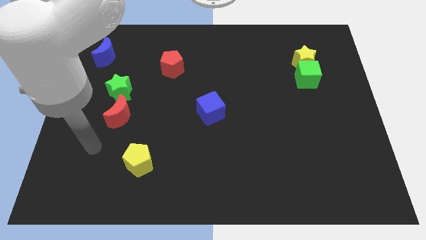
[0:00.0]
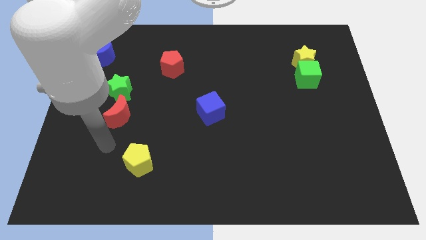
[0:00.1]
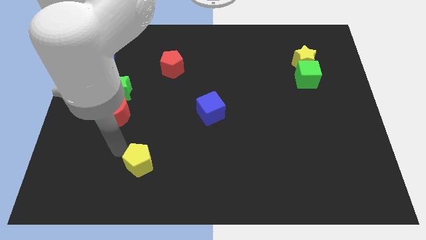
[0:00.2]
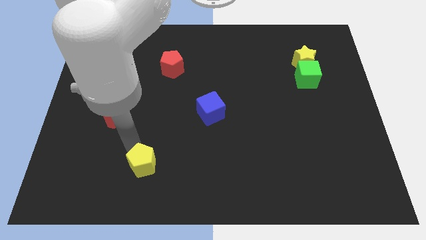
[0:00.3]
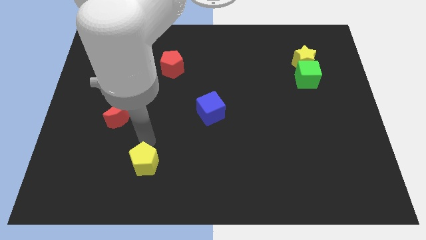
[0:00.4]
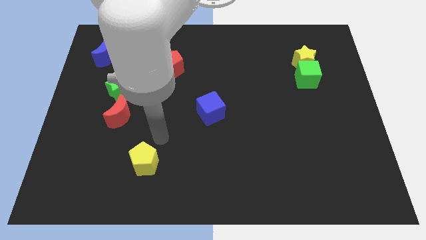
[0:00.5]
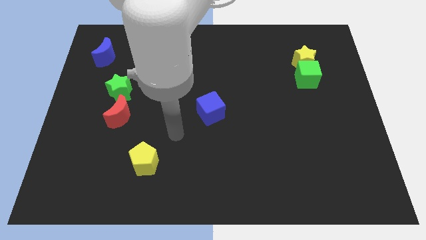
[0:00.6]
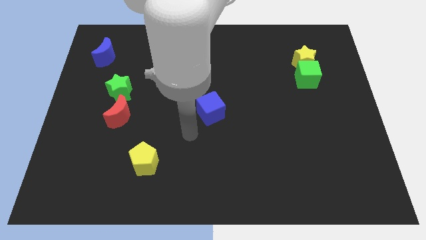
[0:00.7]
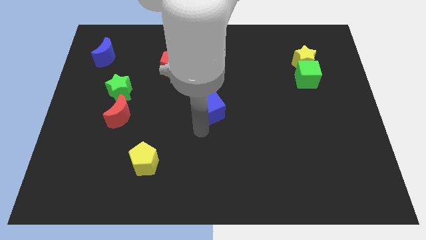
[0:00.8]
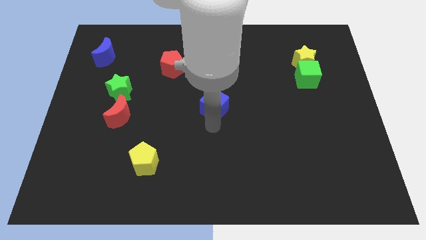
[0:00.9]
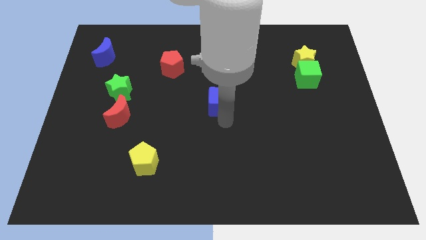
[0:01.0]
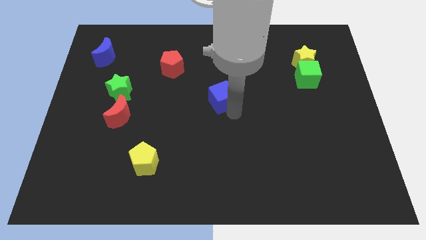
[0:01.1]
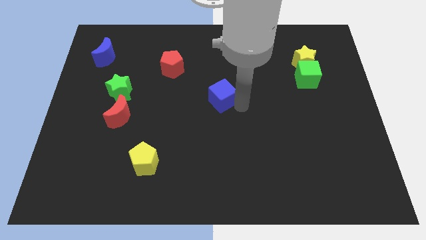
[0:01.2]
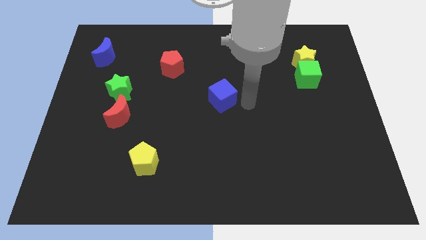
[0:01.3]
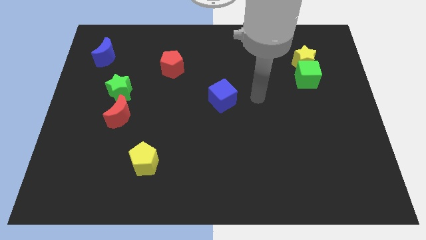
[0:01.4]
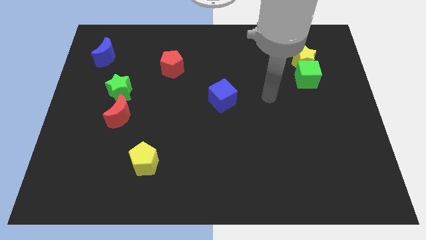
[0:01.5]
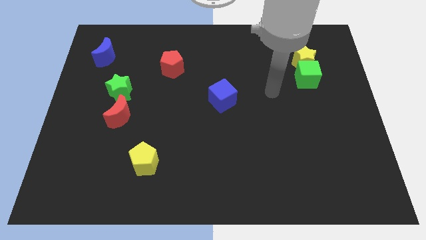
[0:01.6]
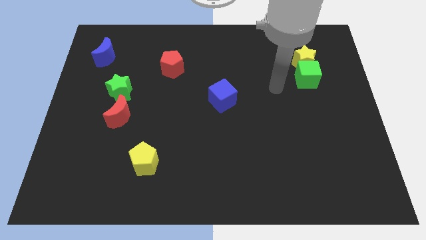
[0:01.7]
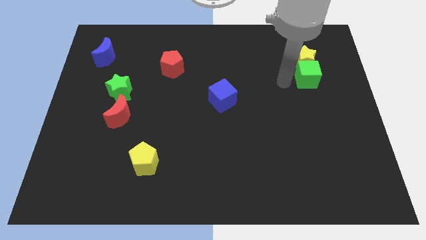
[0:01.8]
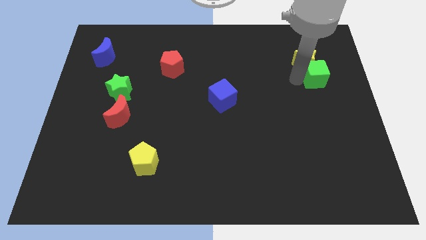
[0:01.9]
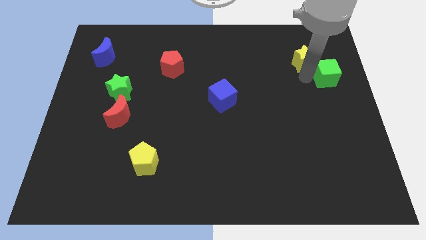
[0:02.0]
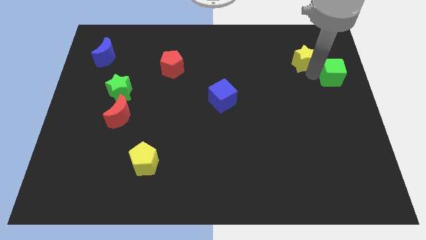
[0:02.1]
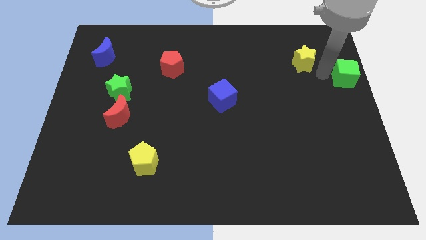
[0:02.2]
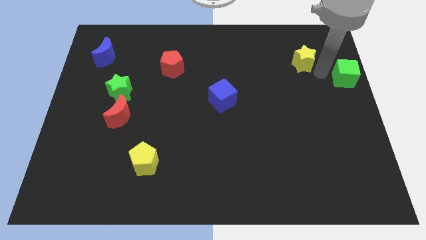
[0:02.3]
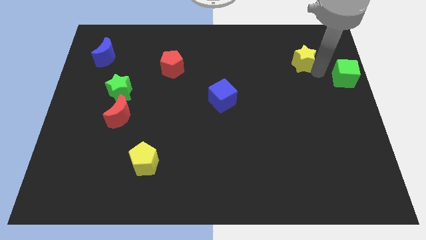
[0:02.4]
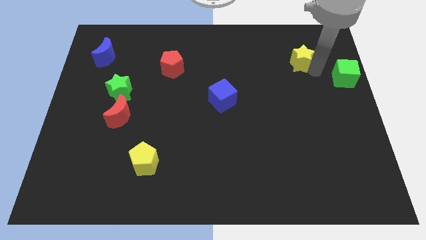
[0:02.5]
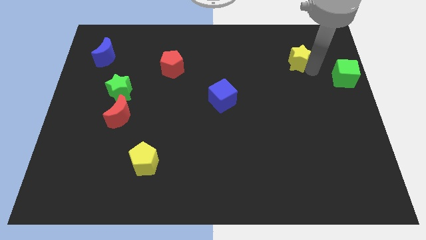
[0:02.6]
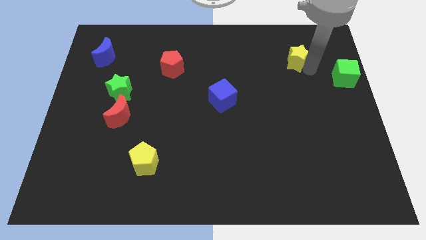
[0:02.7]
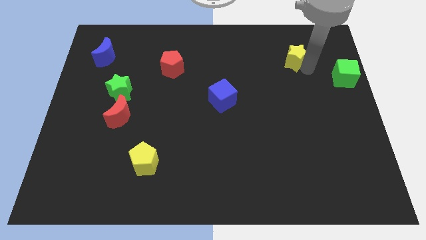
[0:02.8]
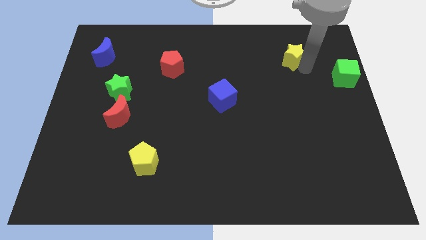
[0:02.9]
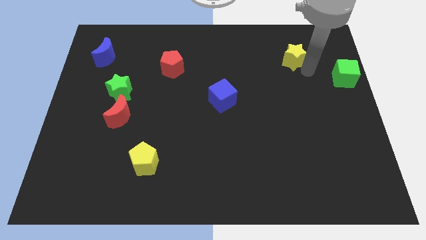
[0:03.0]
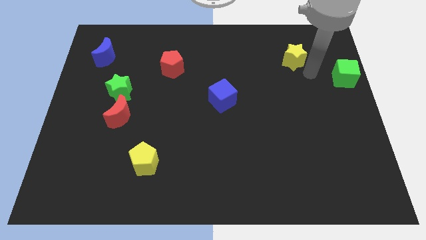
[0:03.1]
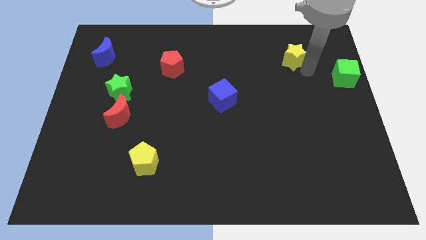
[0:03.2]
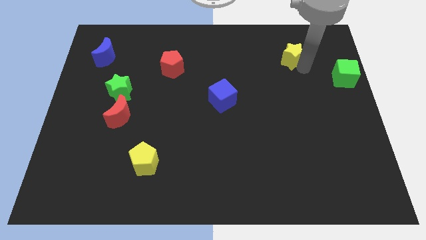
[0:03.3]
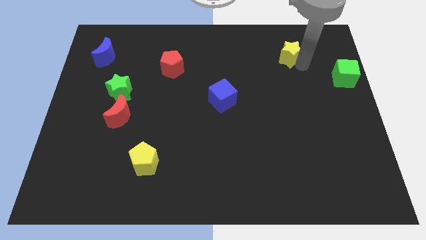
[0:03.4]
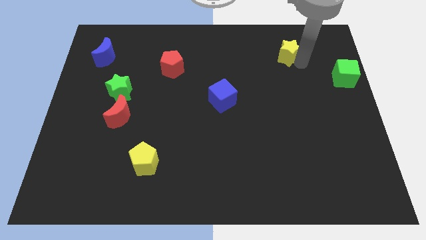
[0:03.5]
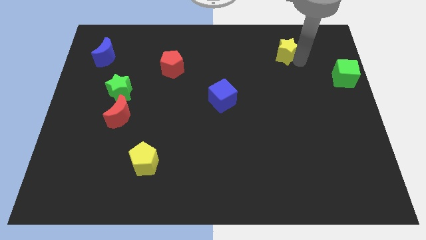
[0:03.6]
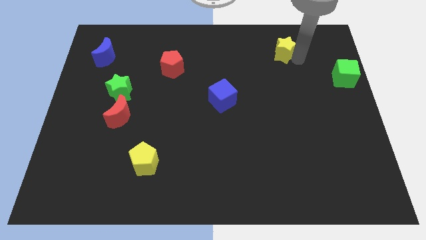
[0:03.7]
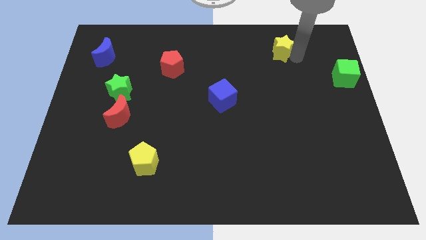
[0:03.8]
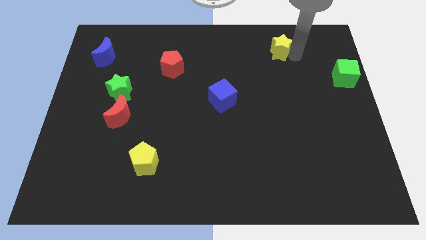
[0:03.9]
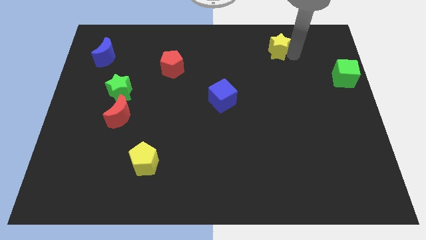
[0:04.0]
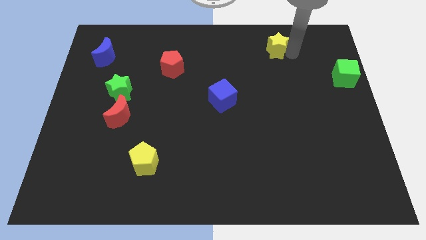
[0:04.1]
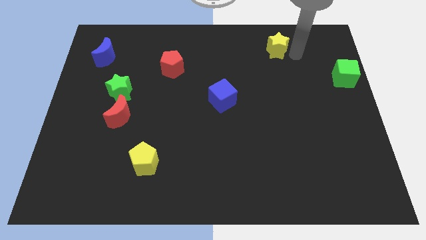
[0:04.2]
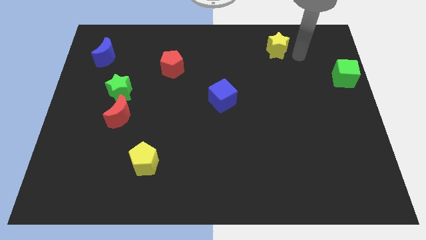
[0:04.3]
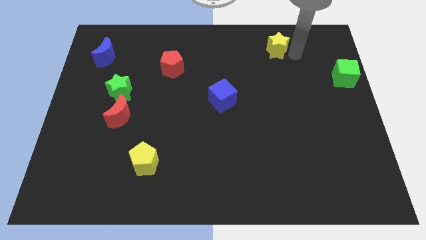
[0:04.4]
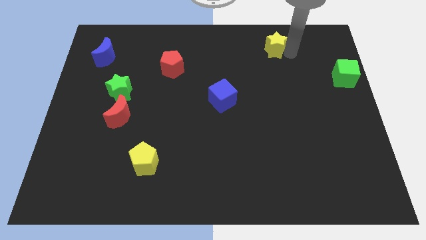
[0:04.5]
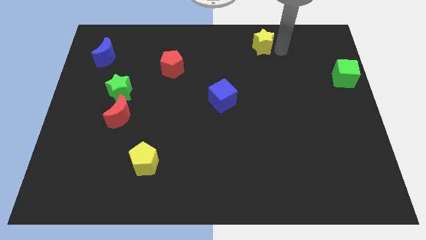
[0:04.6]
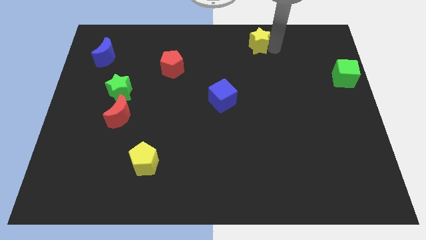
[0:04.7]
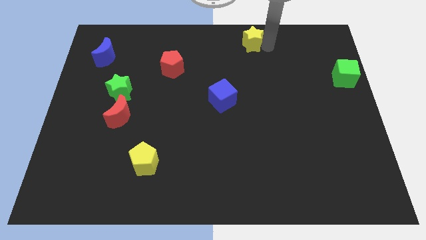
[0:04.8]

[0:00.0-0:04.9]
move the yellow star to the top

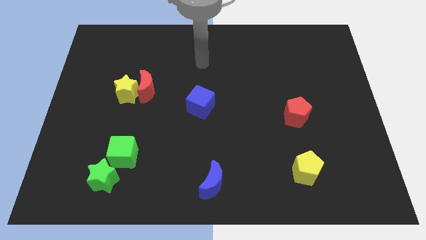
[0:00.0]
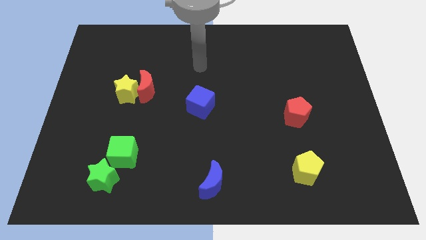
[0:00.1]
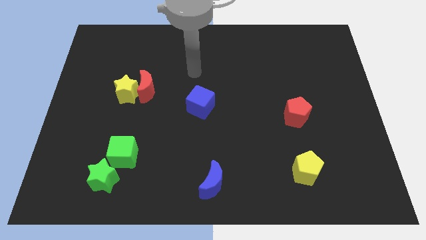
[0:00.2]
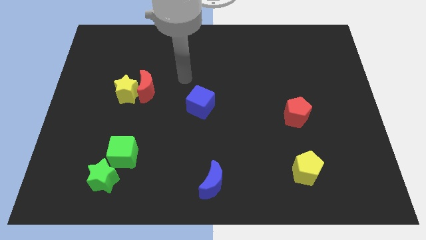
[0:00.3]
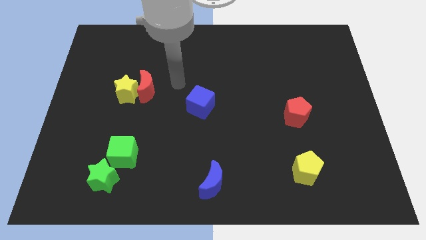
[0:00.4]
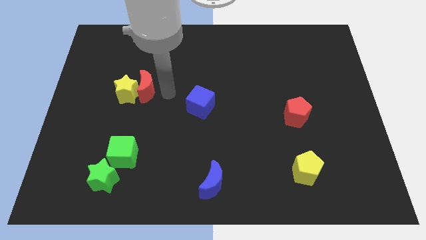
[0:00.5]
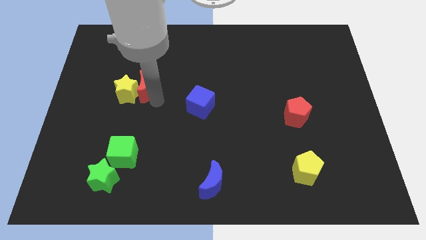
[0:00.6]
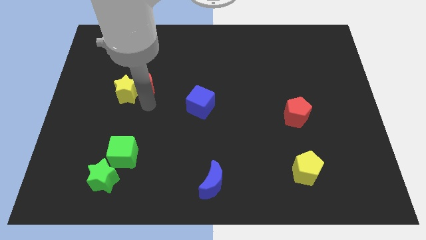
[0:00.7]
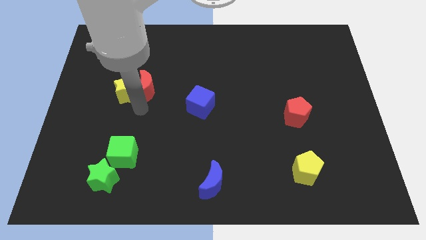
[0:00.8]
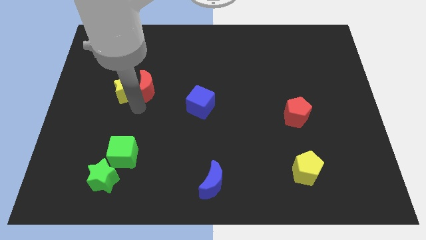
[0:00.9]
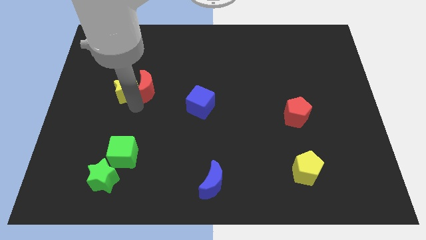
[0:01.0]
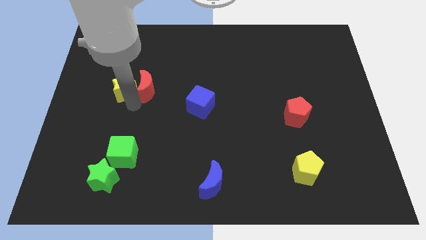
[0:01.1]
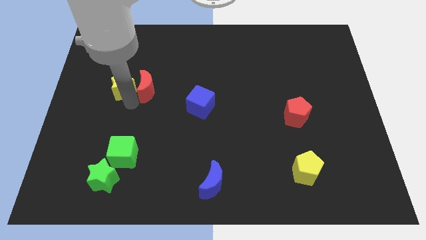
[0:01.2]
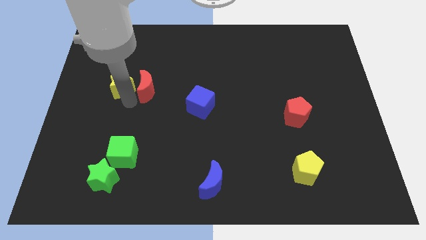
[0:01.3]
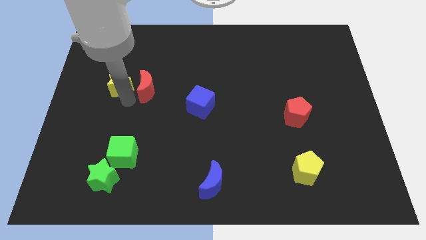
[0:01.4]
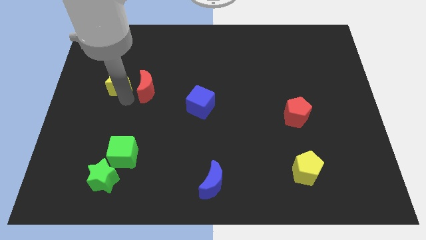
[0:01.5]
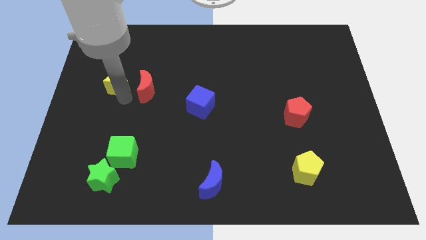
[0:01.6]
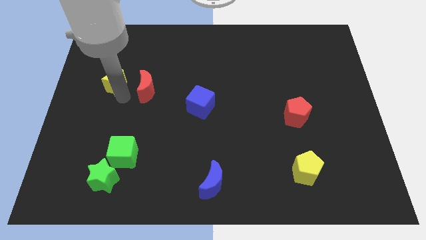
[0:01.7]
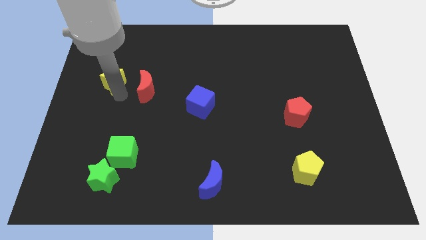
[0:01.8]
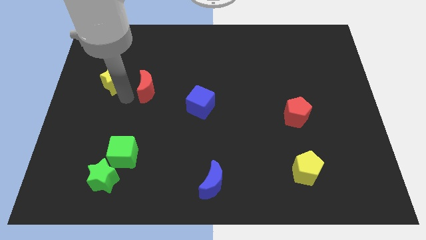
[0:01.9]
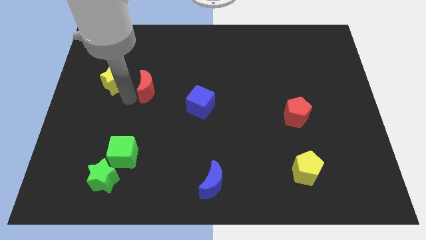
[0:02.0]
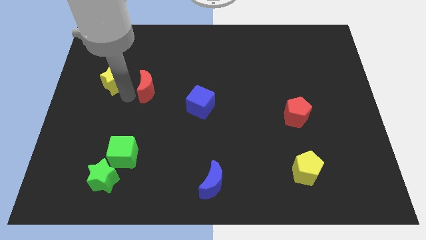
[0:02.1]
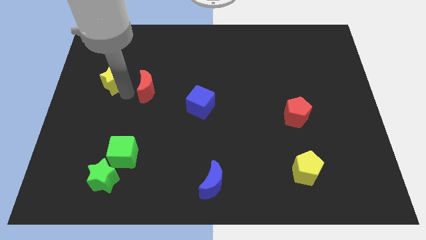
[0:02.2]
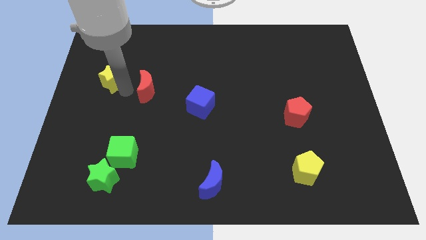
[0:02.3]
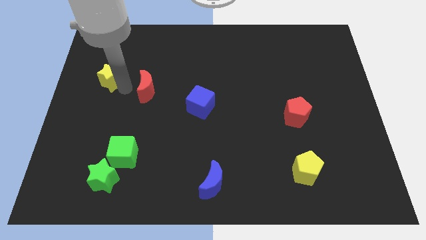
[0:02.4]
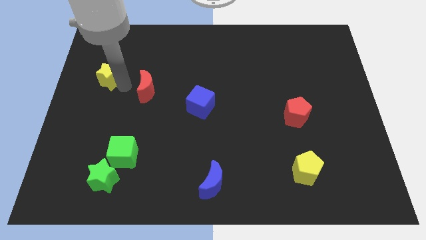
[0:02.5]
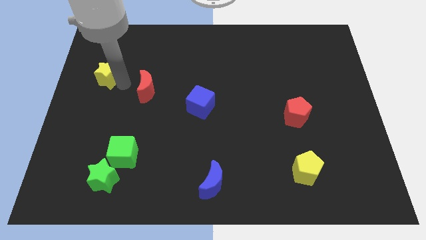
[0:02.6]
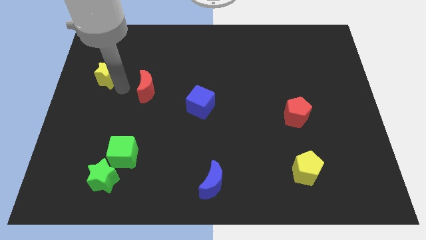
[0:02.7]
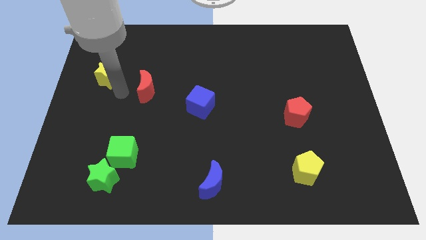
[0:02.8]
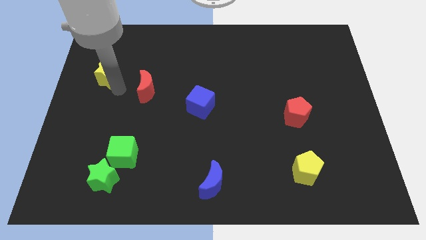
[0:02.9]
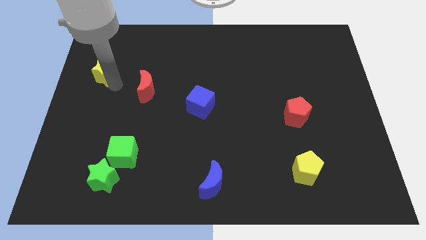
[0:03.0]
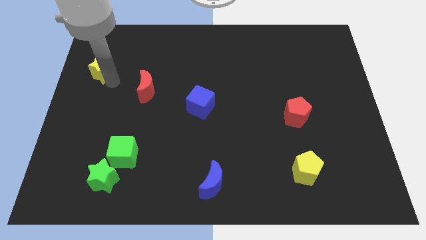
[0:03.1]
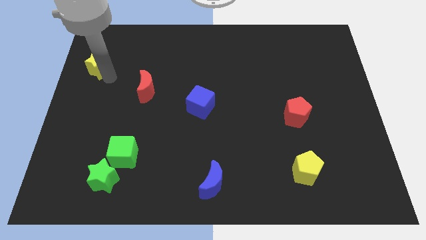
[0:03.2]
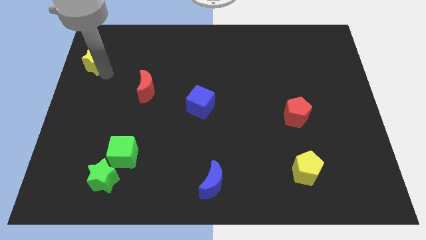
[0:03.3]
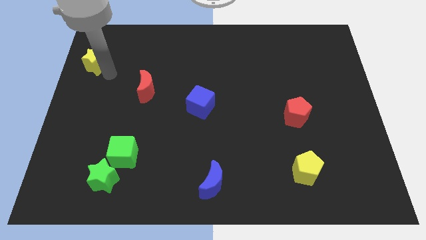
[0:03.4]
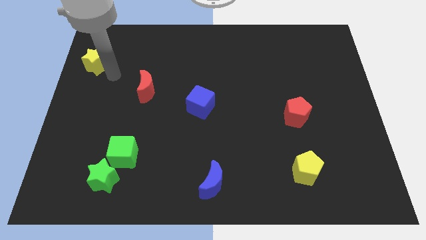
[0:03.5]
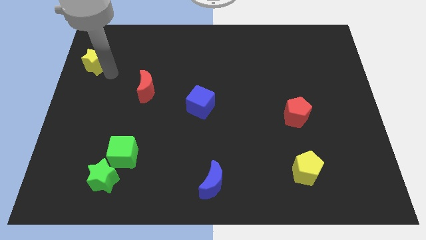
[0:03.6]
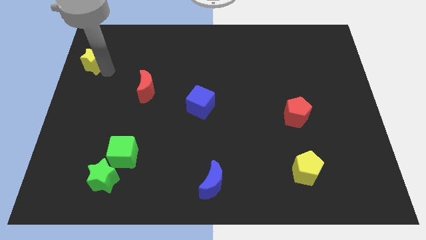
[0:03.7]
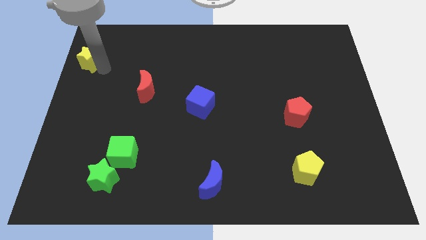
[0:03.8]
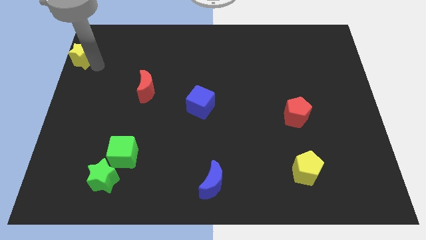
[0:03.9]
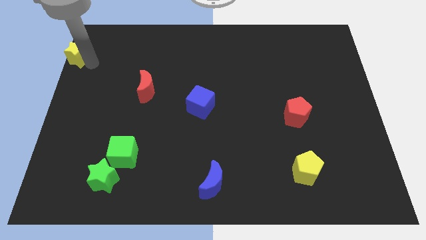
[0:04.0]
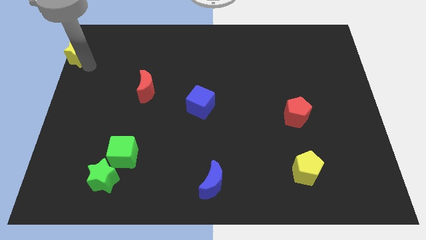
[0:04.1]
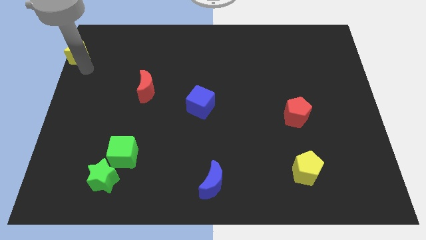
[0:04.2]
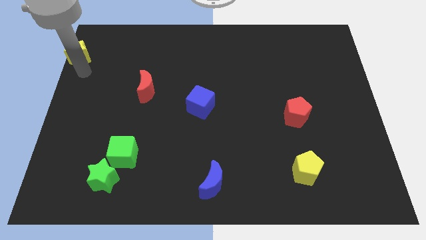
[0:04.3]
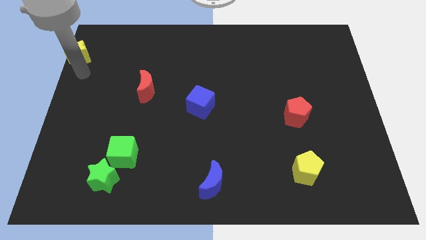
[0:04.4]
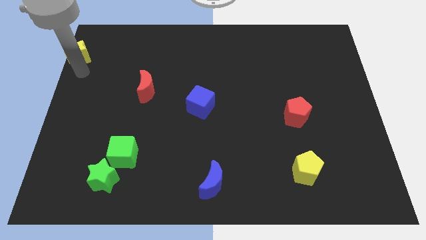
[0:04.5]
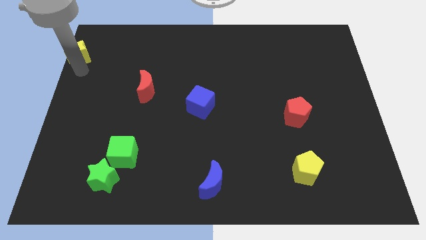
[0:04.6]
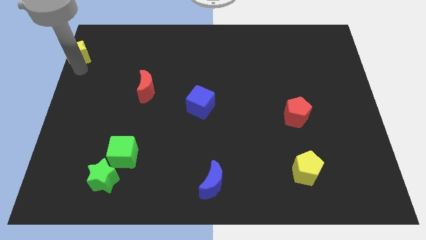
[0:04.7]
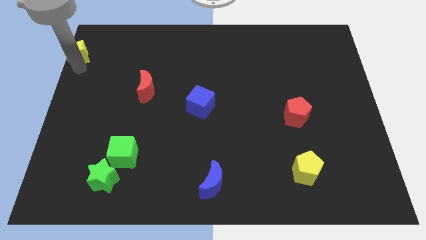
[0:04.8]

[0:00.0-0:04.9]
push the yellow star to the top left
